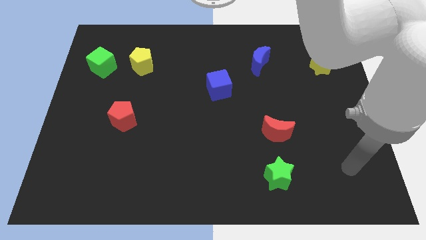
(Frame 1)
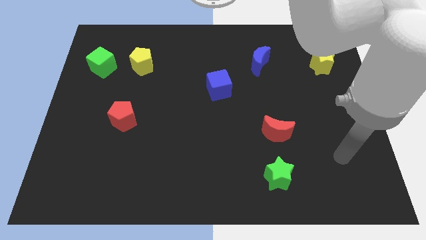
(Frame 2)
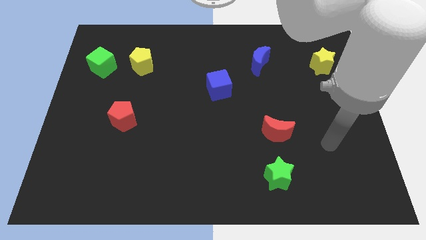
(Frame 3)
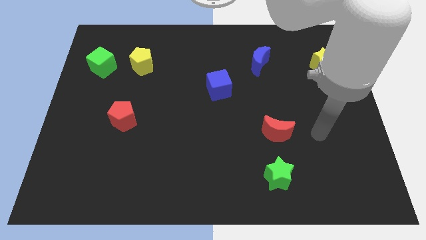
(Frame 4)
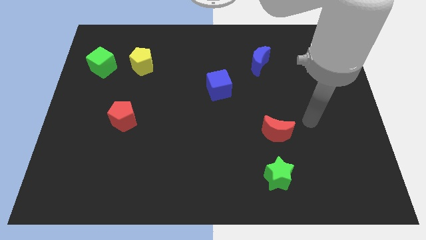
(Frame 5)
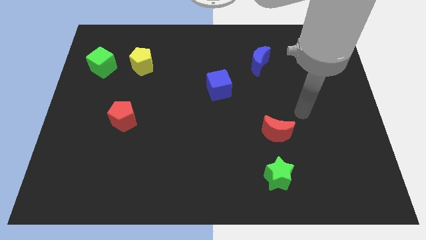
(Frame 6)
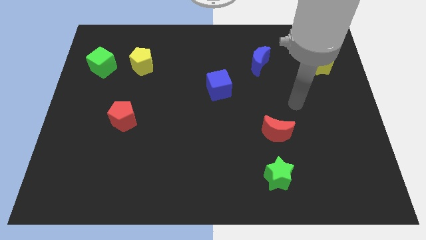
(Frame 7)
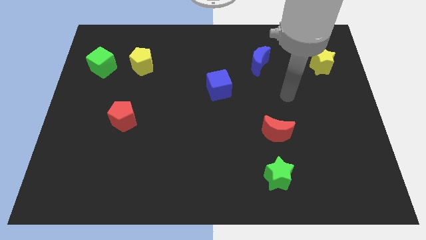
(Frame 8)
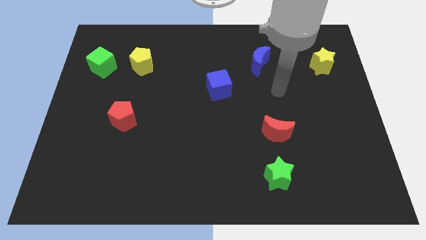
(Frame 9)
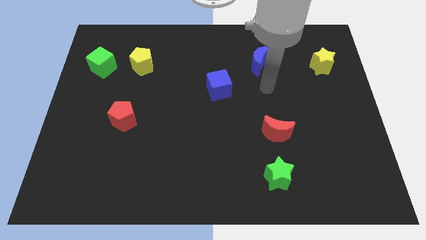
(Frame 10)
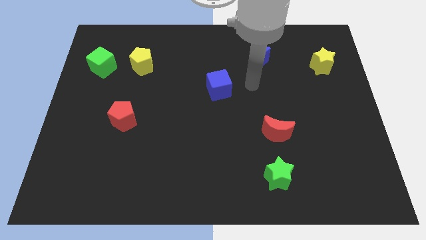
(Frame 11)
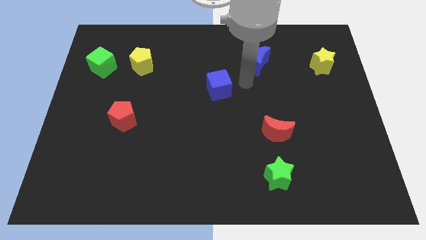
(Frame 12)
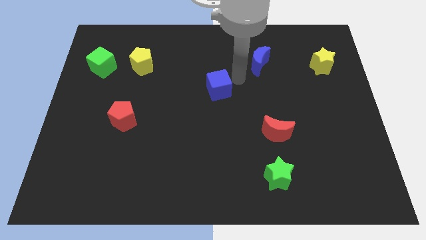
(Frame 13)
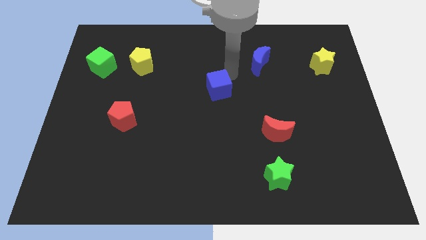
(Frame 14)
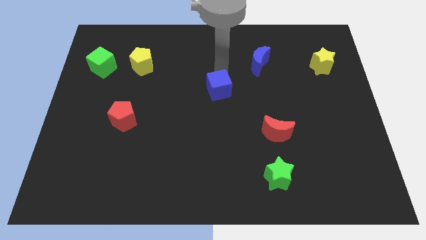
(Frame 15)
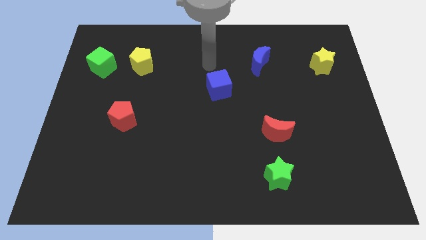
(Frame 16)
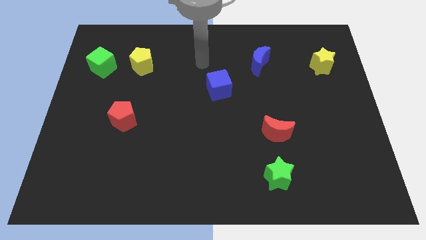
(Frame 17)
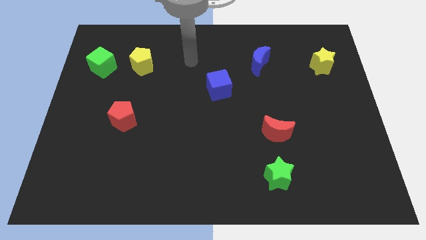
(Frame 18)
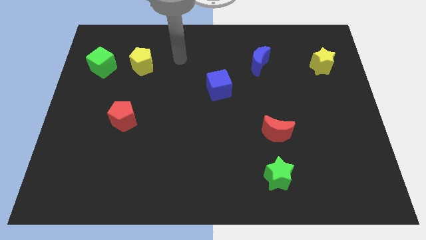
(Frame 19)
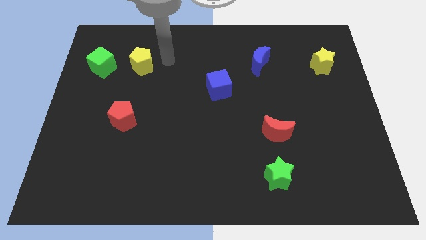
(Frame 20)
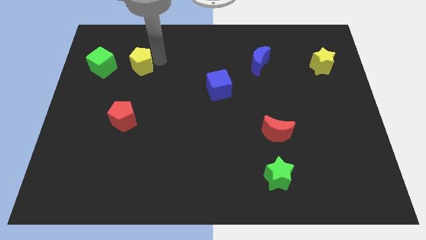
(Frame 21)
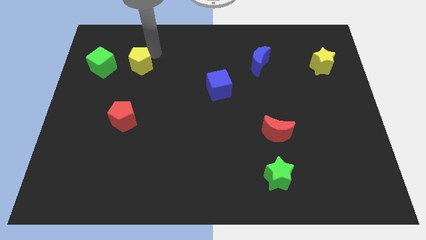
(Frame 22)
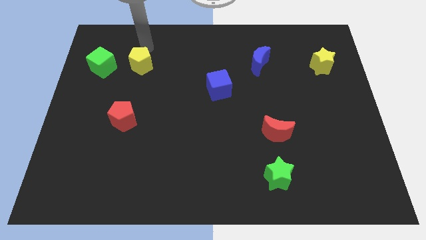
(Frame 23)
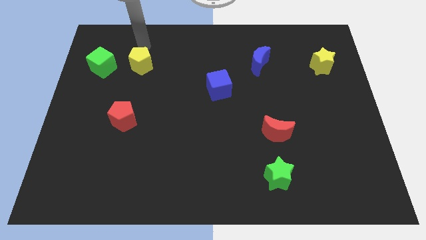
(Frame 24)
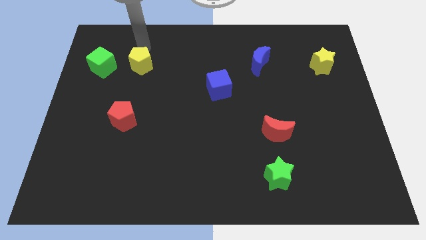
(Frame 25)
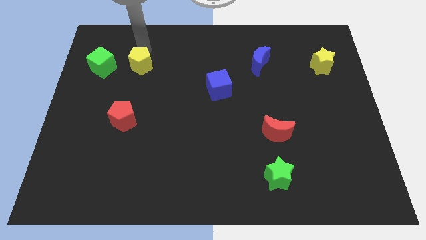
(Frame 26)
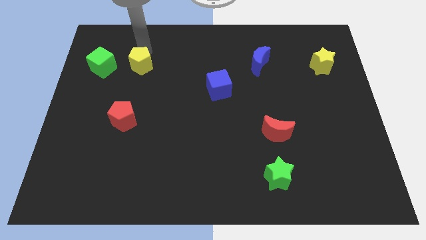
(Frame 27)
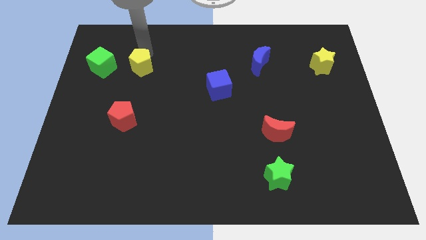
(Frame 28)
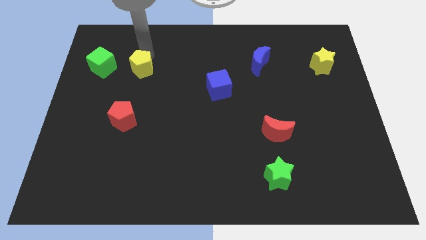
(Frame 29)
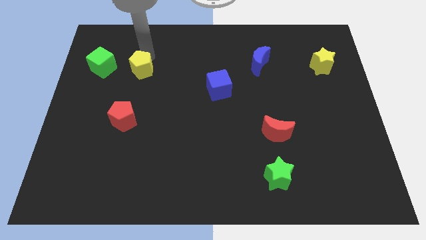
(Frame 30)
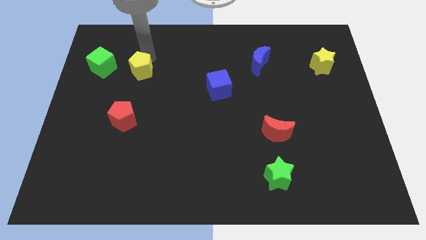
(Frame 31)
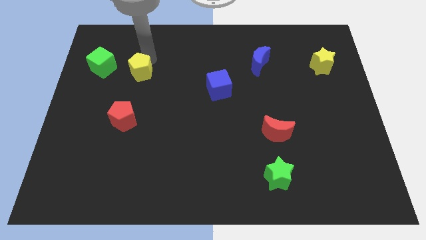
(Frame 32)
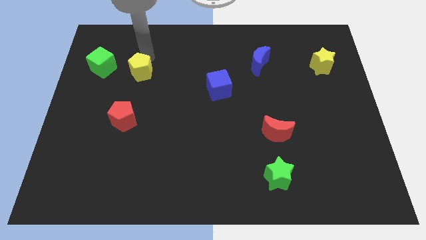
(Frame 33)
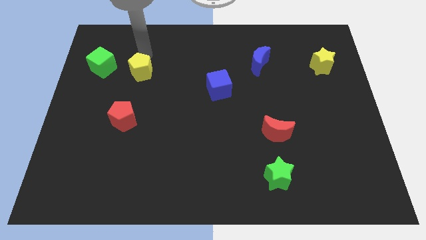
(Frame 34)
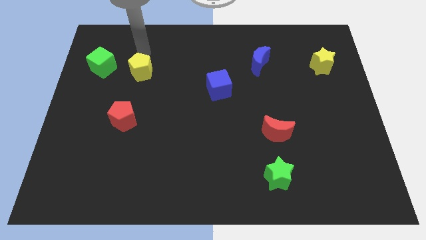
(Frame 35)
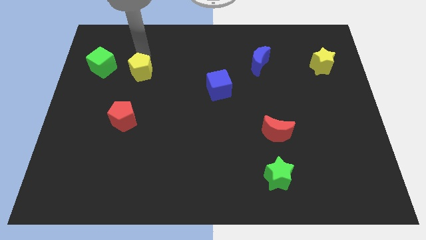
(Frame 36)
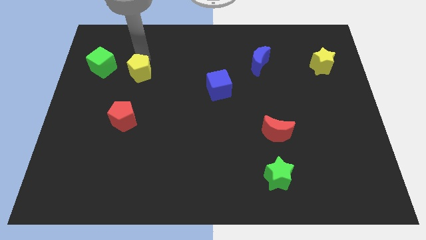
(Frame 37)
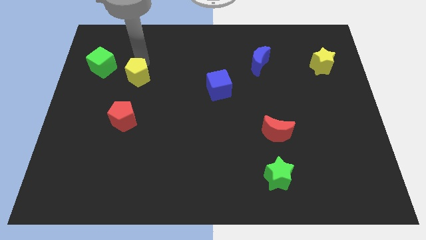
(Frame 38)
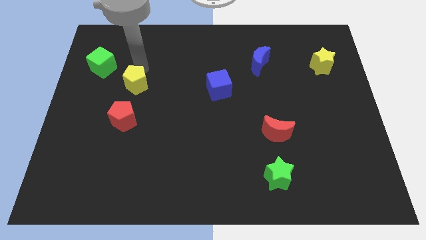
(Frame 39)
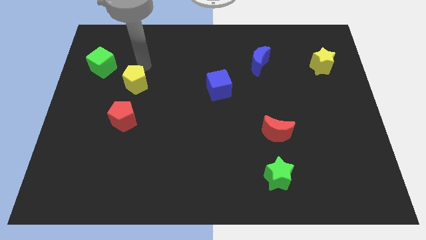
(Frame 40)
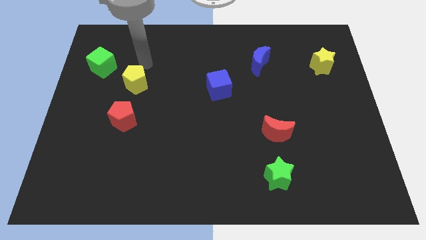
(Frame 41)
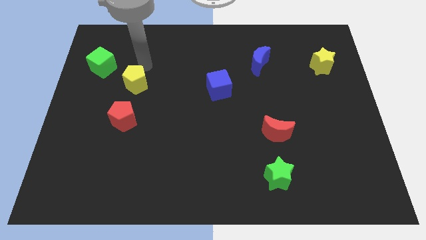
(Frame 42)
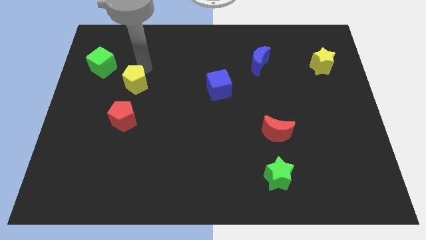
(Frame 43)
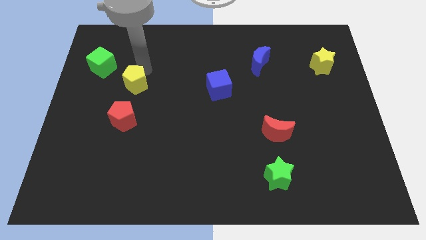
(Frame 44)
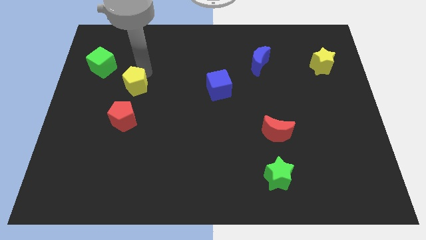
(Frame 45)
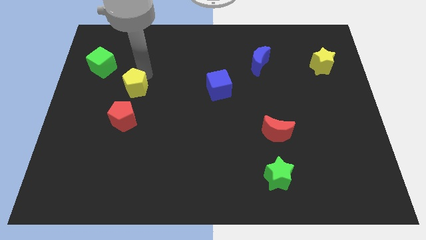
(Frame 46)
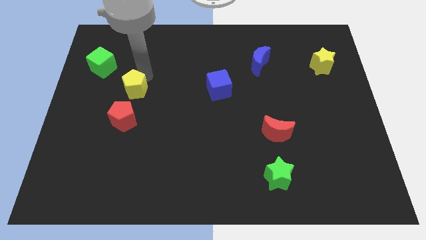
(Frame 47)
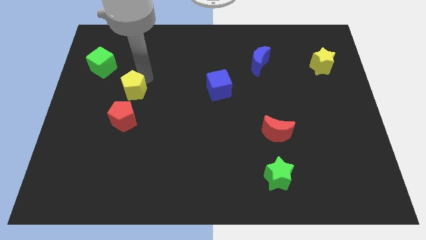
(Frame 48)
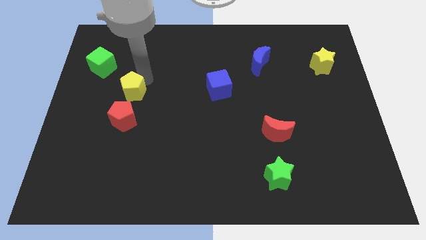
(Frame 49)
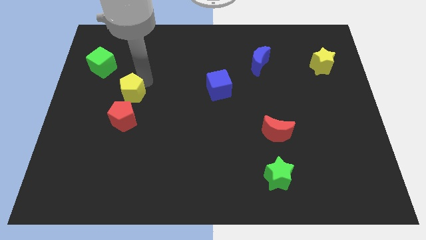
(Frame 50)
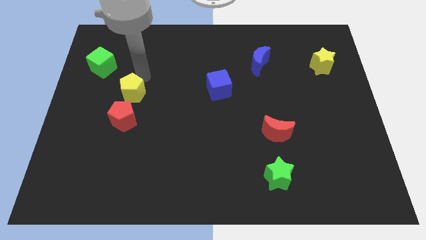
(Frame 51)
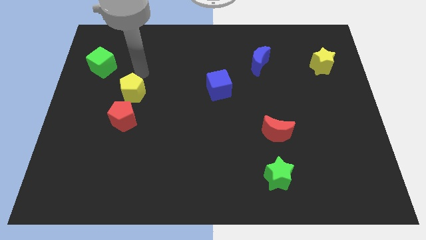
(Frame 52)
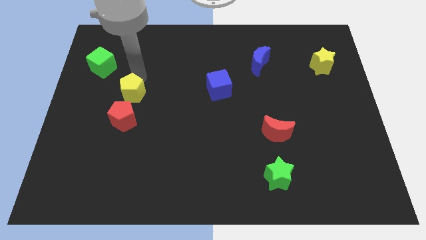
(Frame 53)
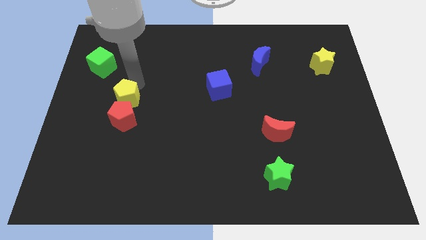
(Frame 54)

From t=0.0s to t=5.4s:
slide the yellow pentagon next to the red pentagon

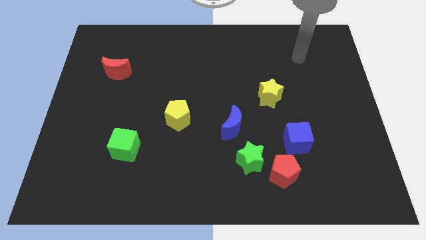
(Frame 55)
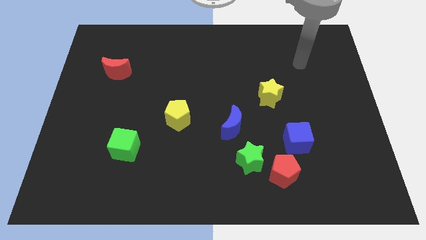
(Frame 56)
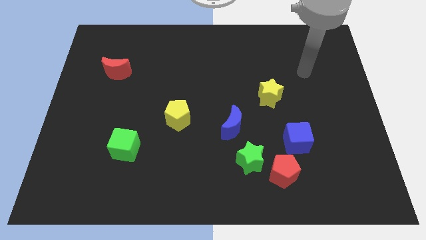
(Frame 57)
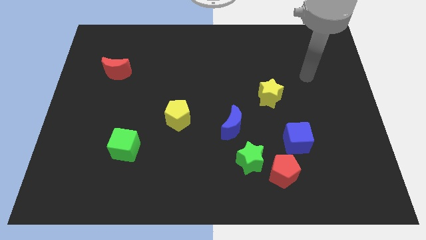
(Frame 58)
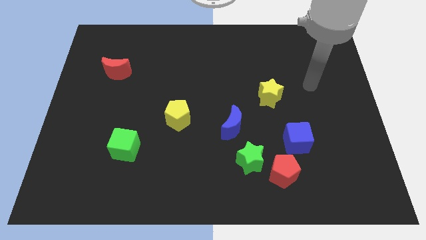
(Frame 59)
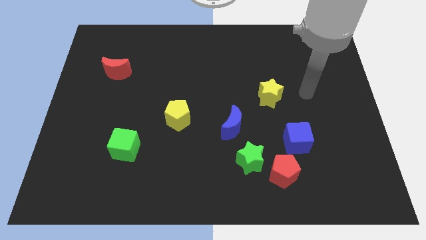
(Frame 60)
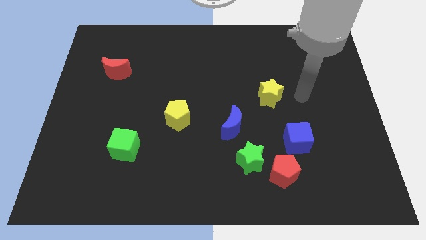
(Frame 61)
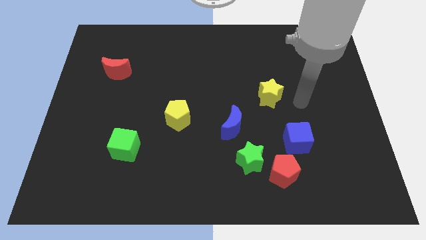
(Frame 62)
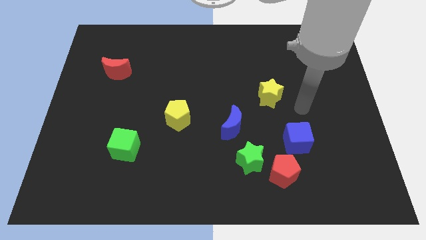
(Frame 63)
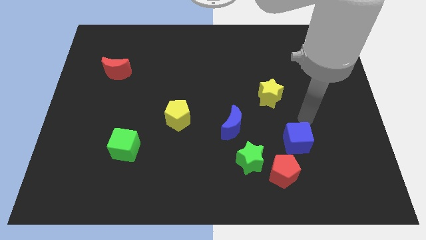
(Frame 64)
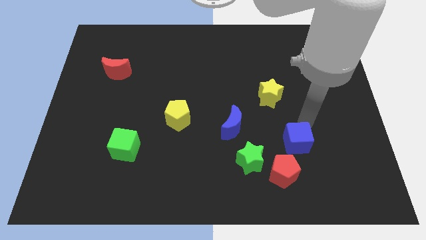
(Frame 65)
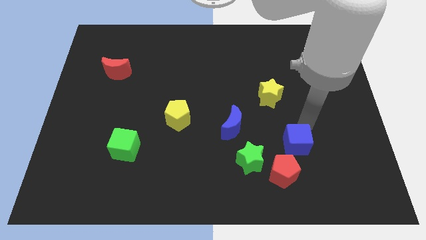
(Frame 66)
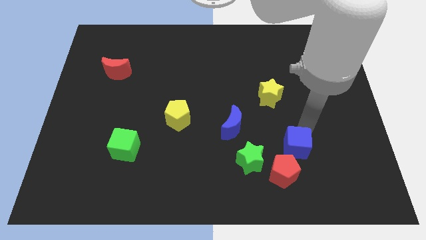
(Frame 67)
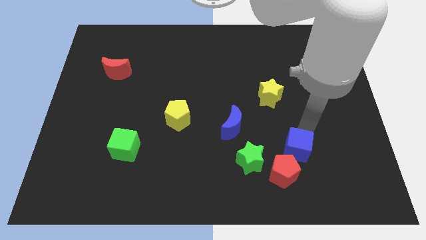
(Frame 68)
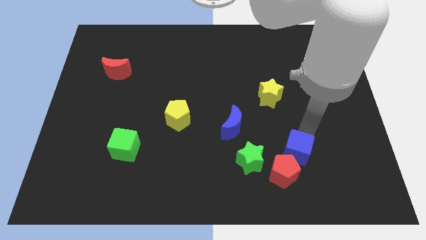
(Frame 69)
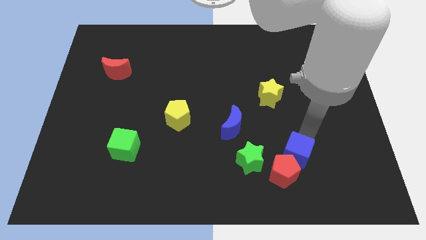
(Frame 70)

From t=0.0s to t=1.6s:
slide the blue cube close to the red pentagon

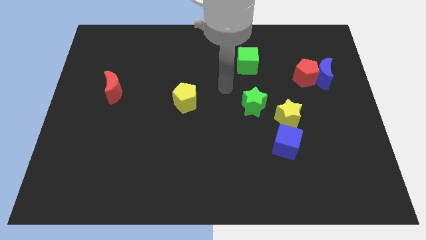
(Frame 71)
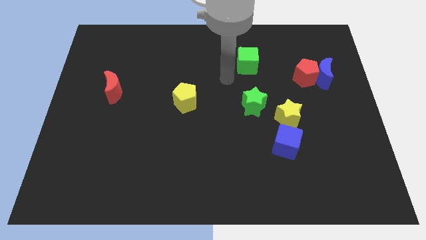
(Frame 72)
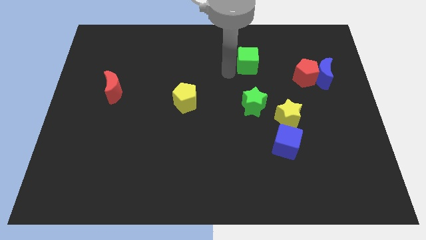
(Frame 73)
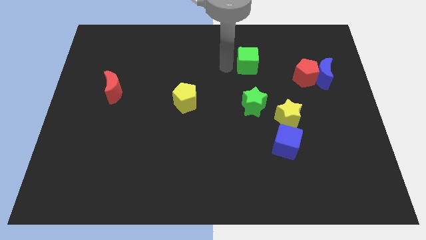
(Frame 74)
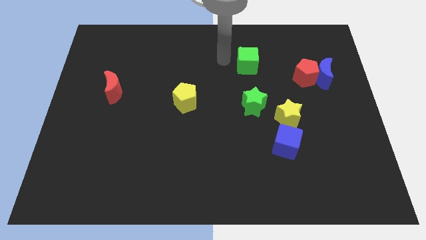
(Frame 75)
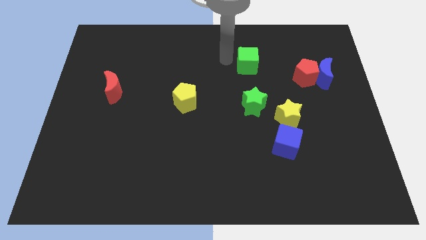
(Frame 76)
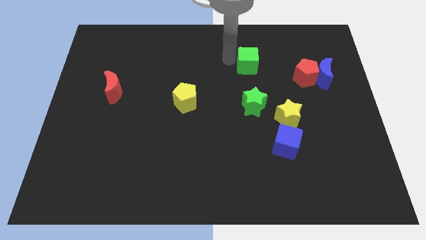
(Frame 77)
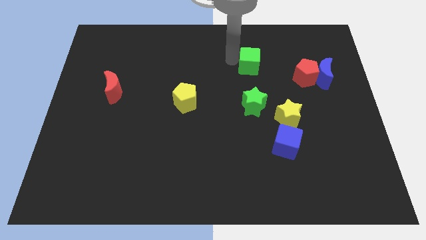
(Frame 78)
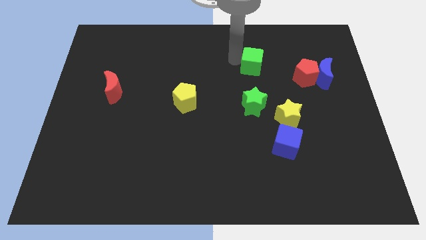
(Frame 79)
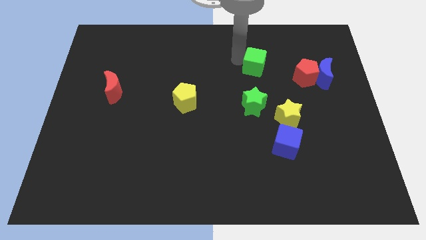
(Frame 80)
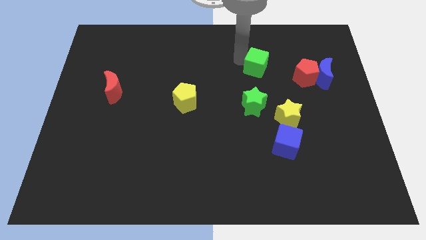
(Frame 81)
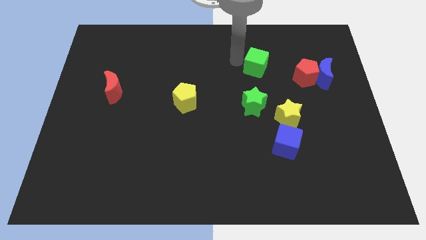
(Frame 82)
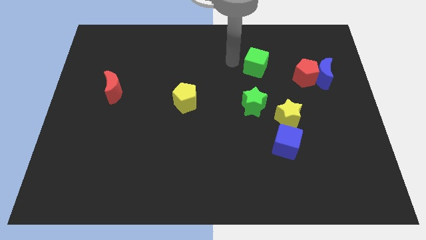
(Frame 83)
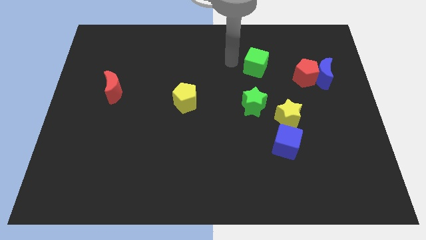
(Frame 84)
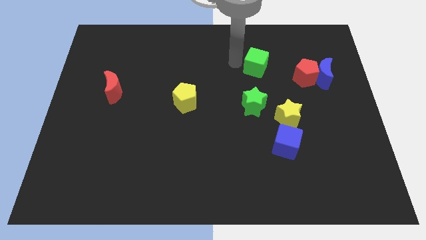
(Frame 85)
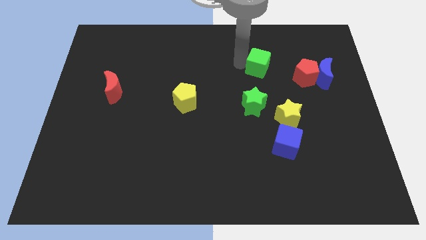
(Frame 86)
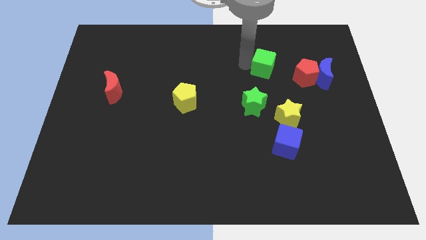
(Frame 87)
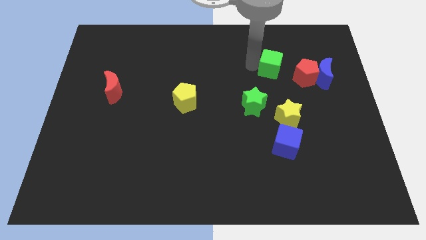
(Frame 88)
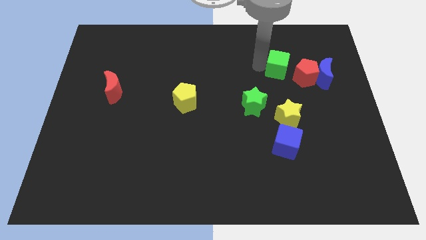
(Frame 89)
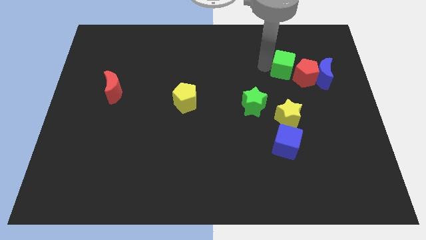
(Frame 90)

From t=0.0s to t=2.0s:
push the green cube towards the red pentagon
